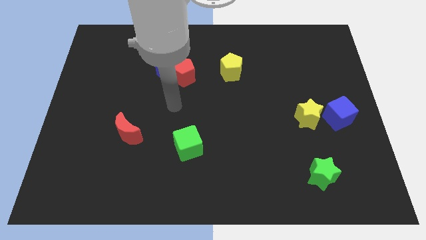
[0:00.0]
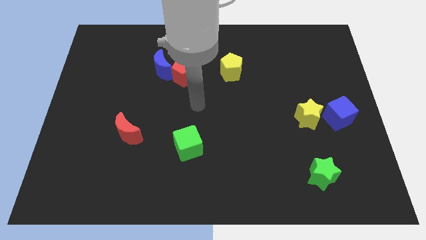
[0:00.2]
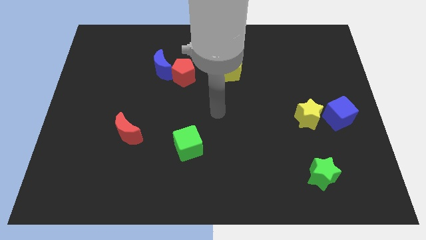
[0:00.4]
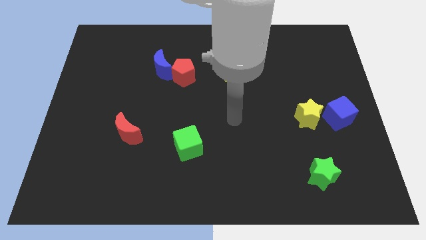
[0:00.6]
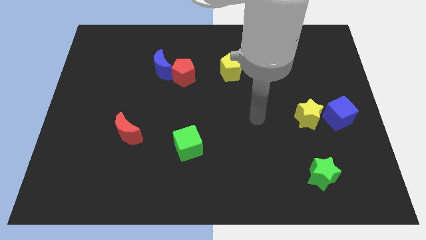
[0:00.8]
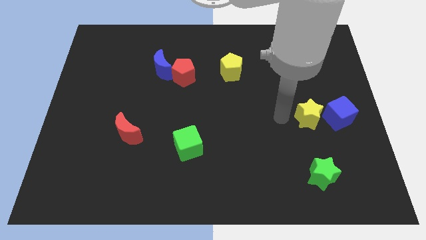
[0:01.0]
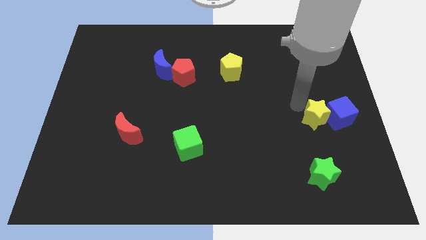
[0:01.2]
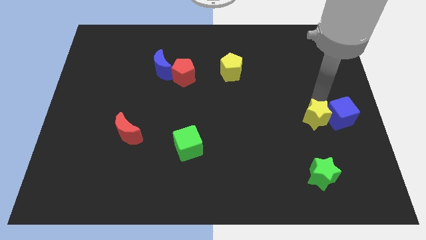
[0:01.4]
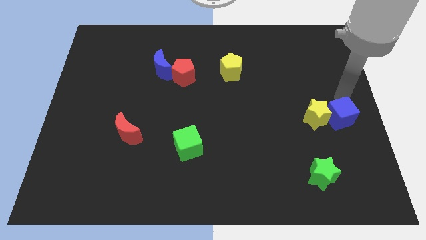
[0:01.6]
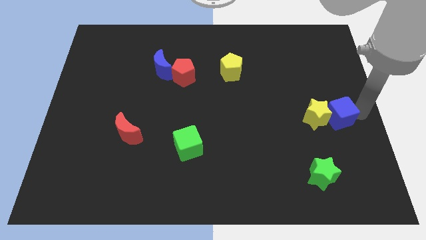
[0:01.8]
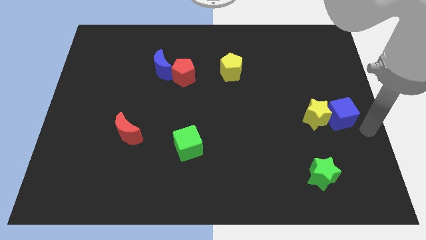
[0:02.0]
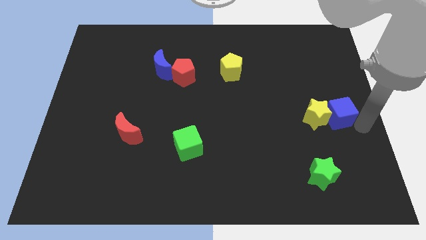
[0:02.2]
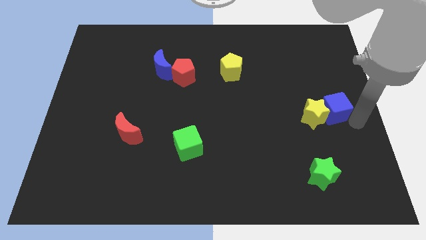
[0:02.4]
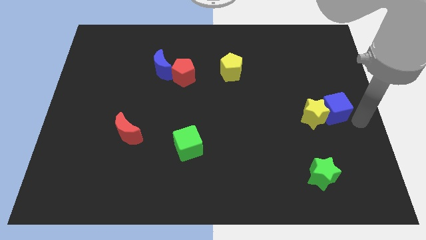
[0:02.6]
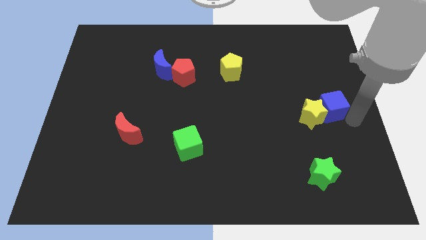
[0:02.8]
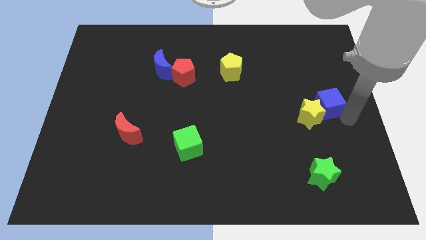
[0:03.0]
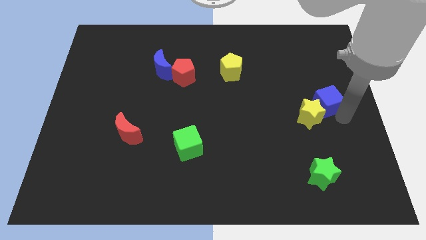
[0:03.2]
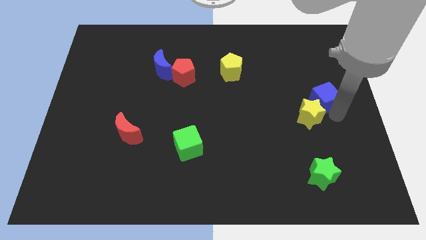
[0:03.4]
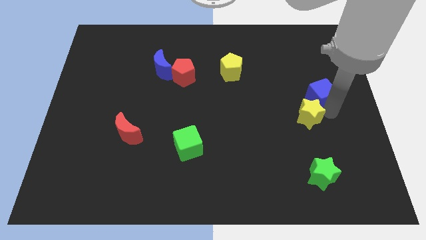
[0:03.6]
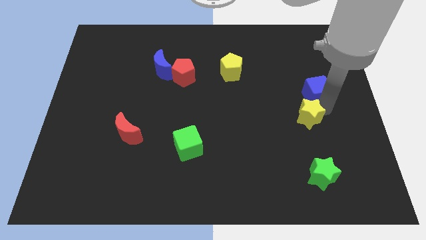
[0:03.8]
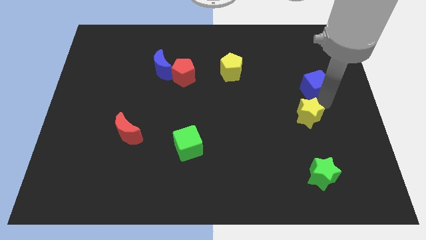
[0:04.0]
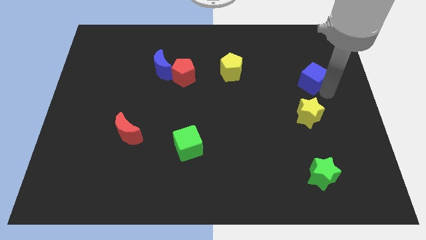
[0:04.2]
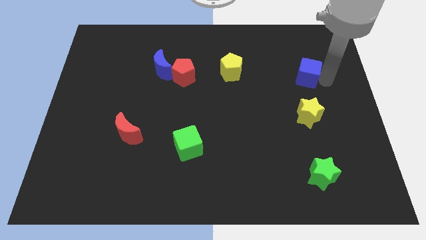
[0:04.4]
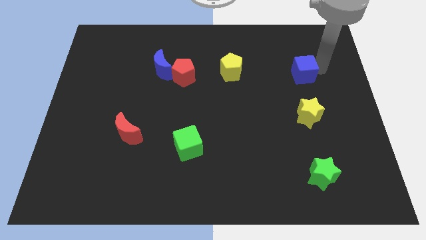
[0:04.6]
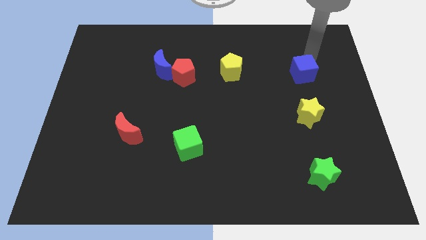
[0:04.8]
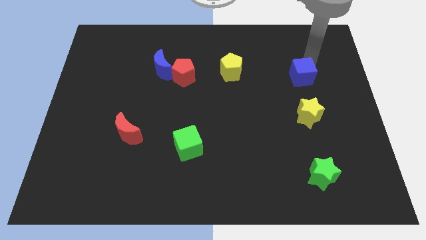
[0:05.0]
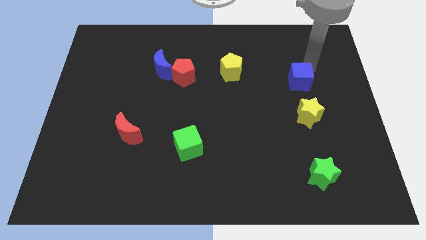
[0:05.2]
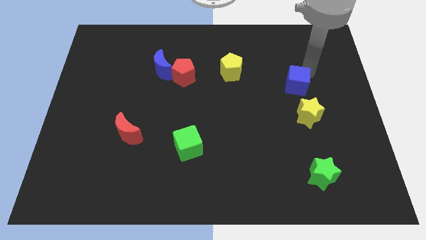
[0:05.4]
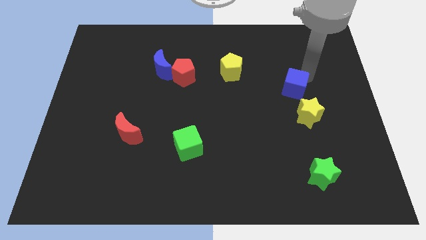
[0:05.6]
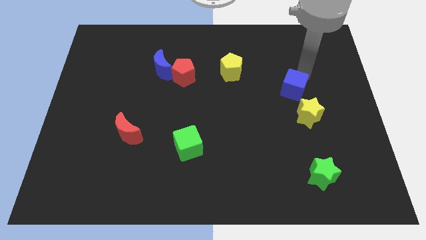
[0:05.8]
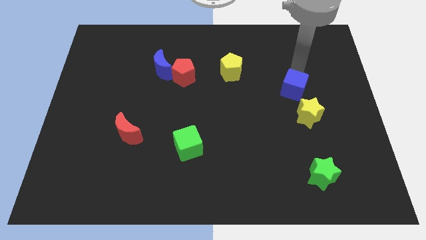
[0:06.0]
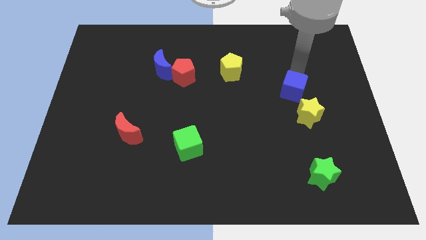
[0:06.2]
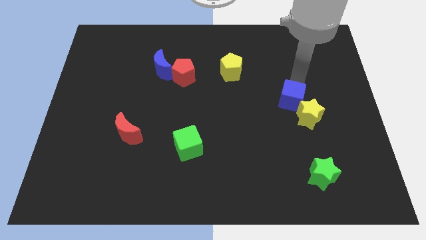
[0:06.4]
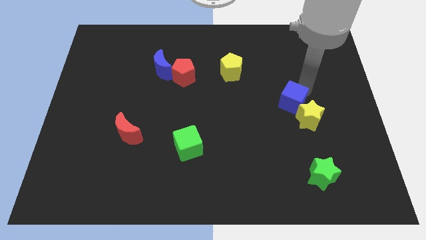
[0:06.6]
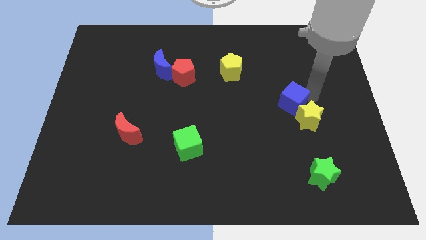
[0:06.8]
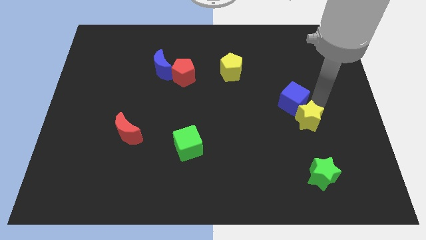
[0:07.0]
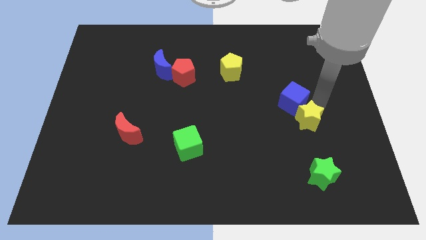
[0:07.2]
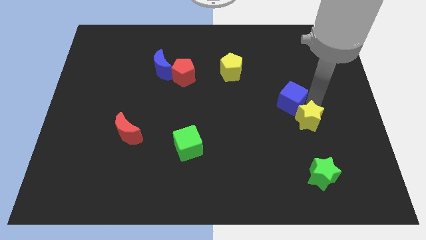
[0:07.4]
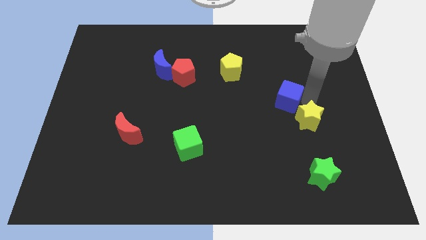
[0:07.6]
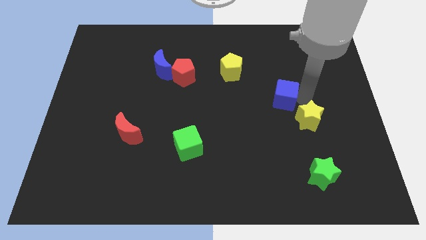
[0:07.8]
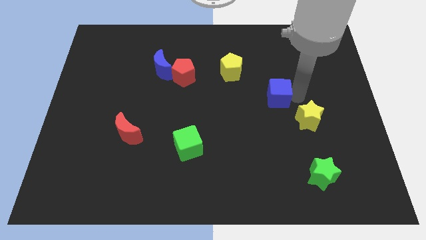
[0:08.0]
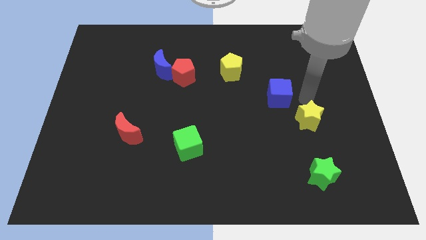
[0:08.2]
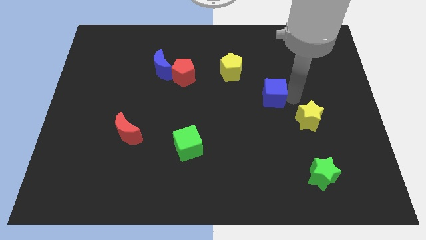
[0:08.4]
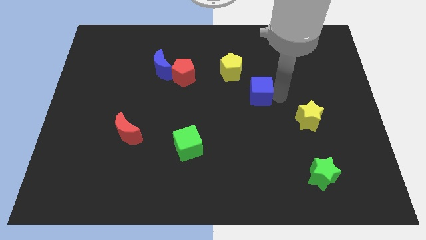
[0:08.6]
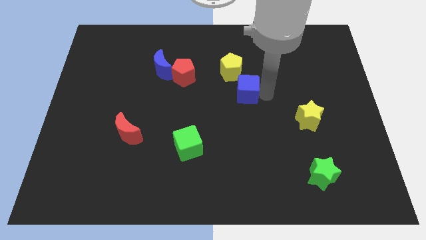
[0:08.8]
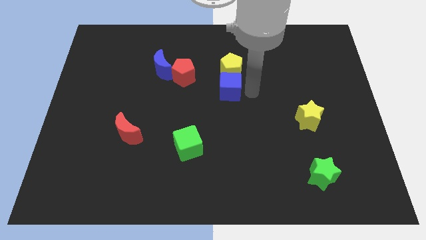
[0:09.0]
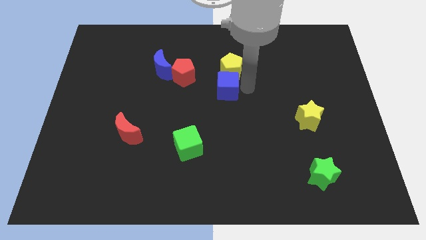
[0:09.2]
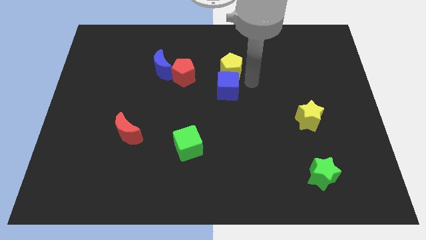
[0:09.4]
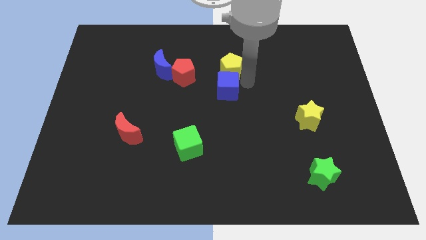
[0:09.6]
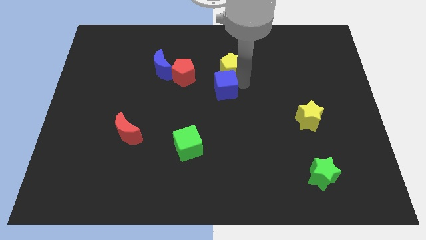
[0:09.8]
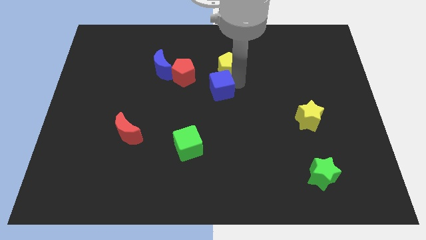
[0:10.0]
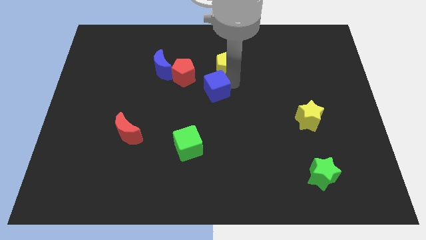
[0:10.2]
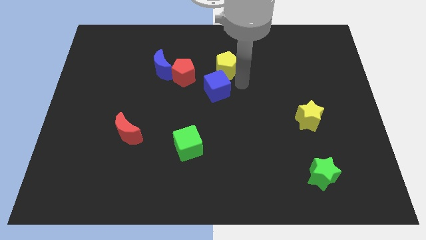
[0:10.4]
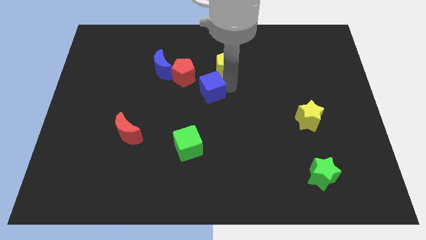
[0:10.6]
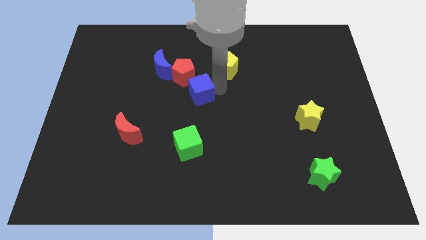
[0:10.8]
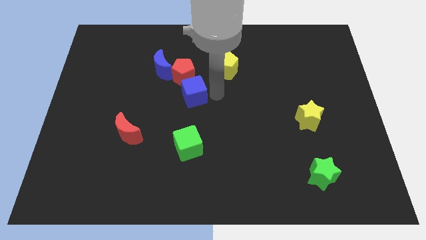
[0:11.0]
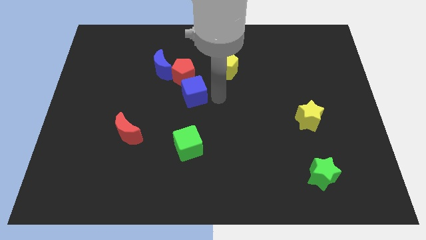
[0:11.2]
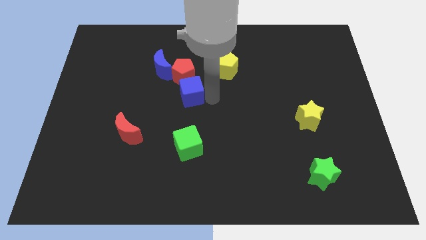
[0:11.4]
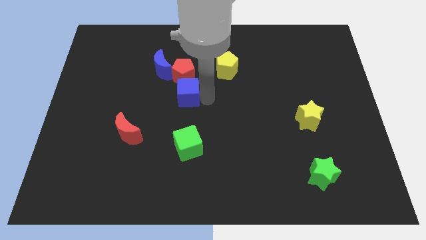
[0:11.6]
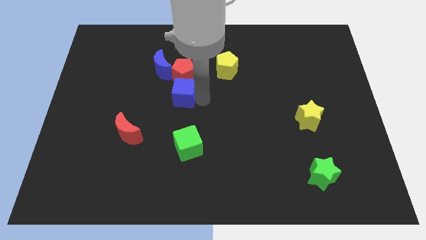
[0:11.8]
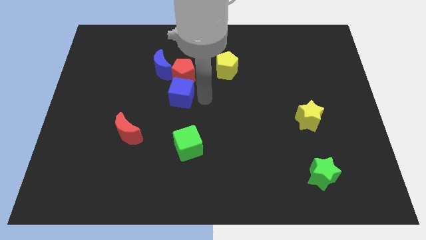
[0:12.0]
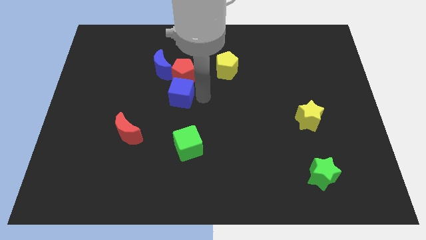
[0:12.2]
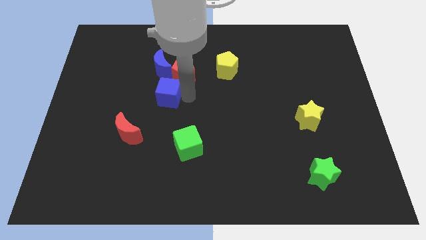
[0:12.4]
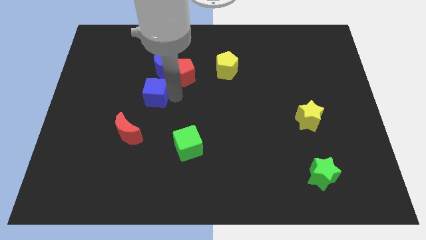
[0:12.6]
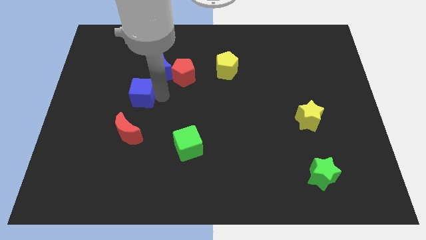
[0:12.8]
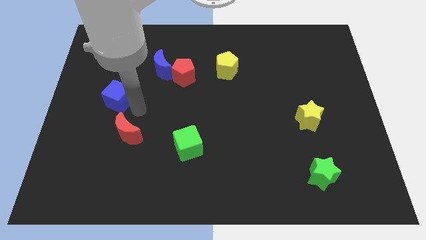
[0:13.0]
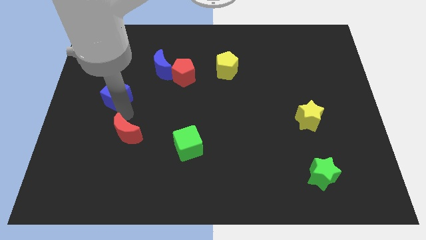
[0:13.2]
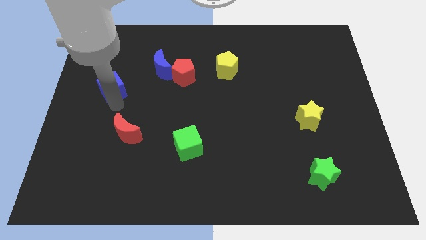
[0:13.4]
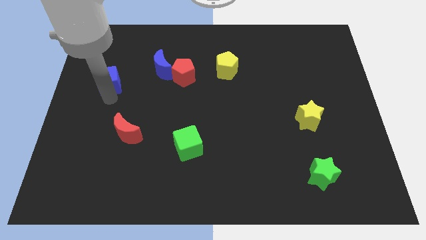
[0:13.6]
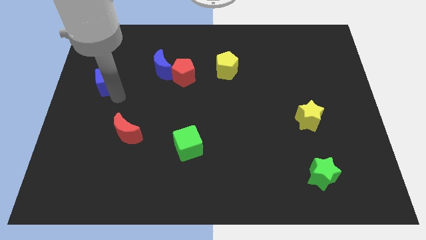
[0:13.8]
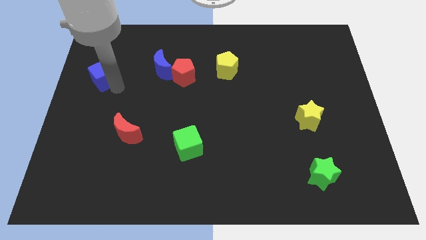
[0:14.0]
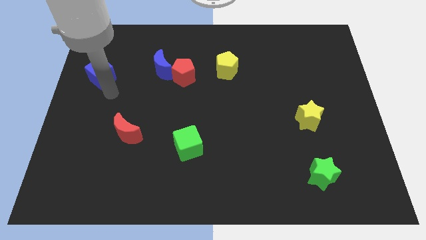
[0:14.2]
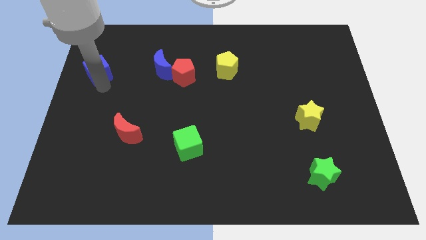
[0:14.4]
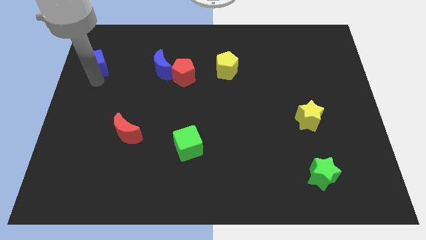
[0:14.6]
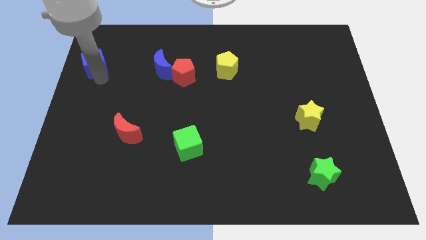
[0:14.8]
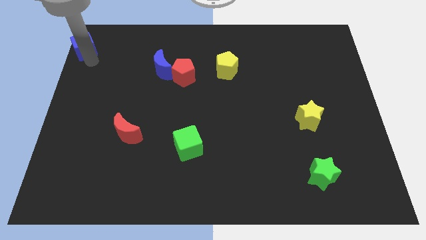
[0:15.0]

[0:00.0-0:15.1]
put the blue cube to the top left corner
